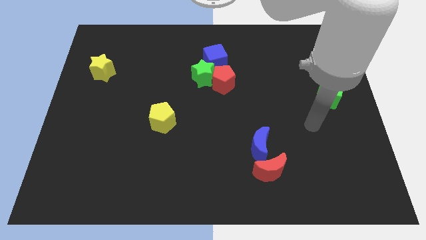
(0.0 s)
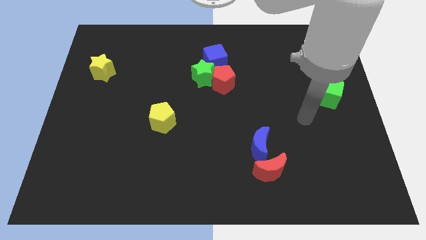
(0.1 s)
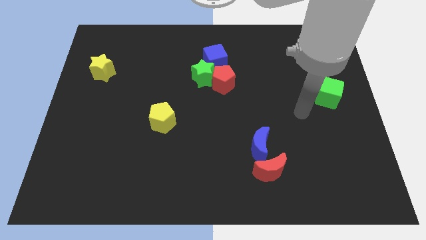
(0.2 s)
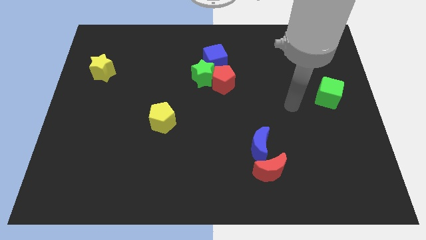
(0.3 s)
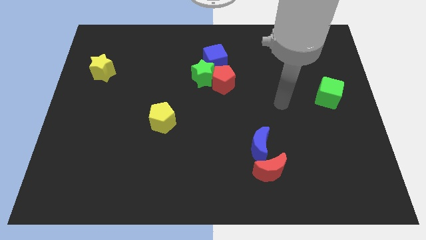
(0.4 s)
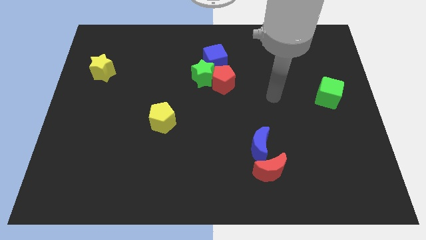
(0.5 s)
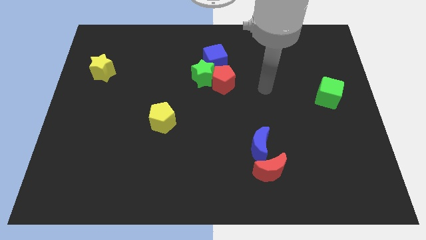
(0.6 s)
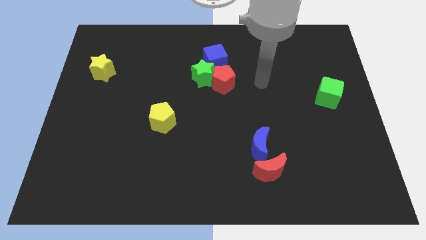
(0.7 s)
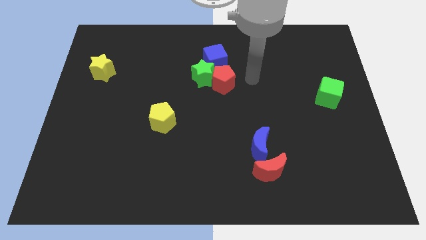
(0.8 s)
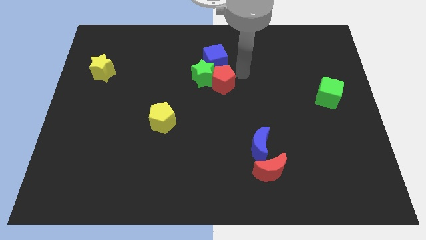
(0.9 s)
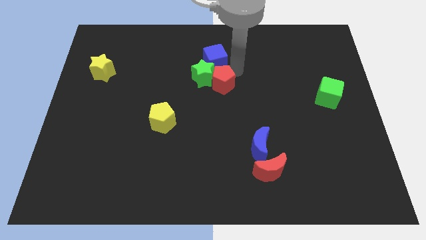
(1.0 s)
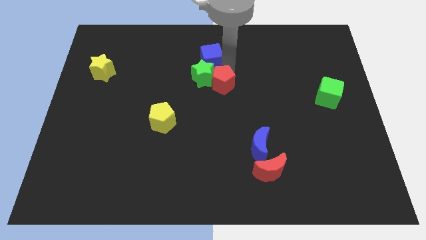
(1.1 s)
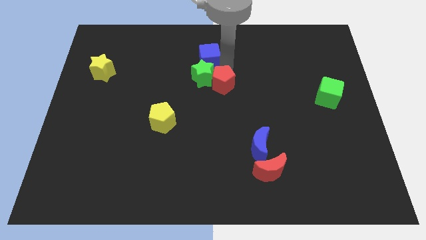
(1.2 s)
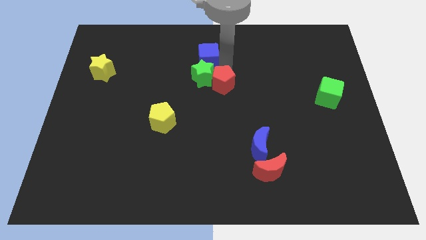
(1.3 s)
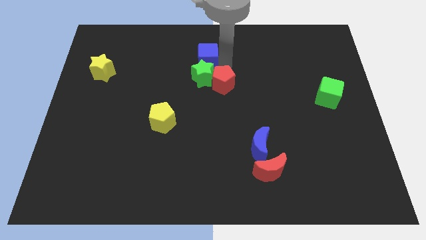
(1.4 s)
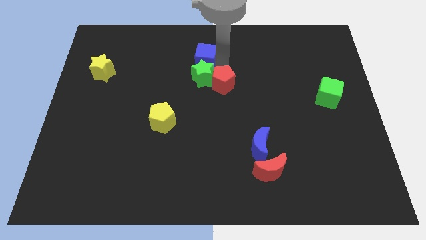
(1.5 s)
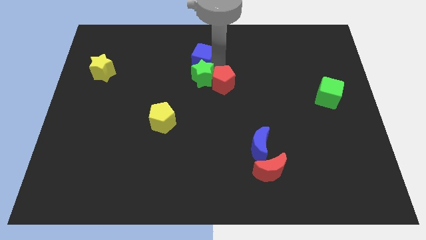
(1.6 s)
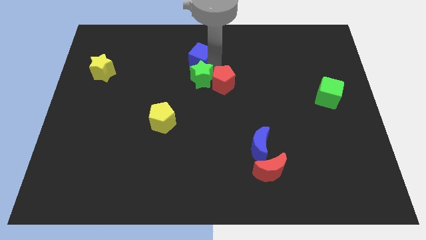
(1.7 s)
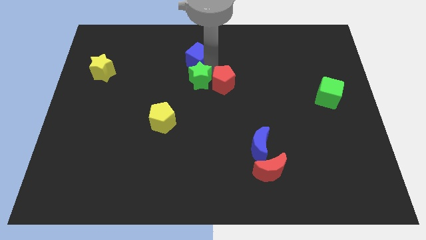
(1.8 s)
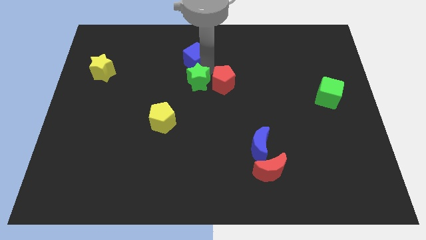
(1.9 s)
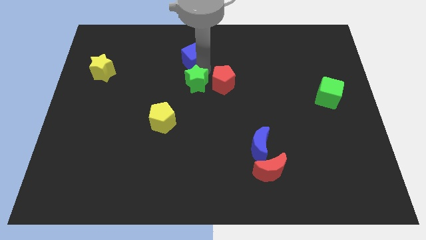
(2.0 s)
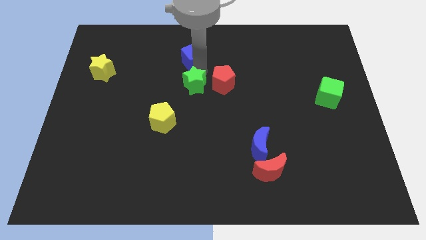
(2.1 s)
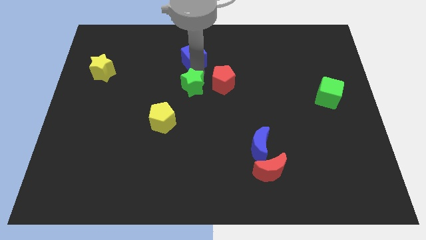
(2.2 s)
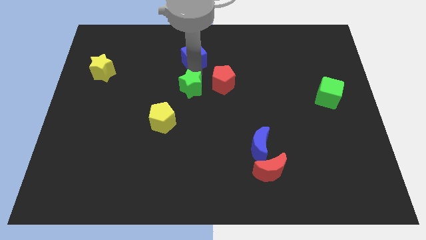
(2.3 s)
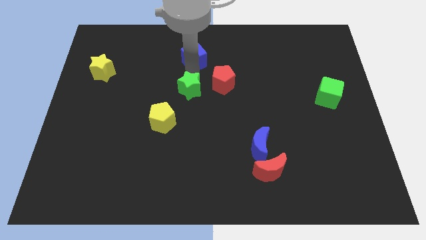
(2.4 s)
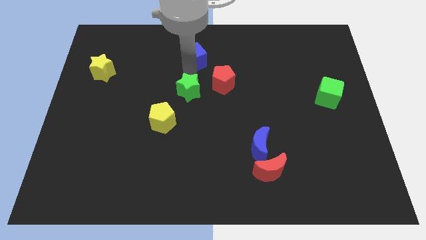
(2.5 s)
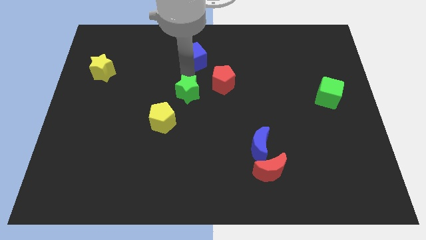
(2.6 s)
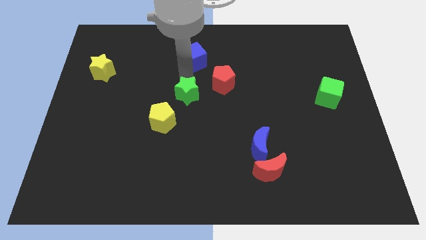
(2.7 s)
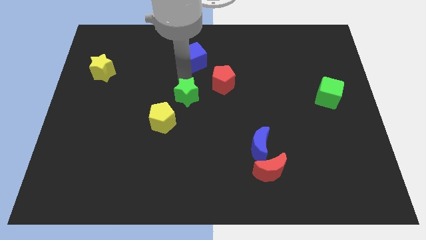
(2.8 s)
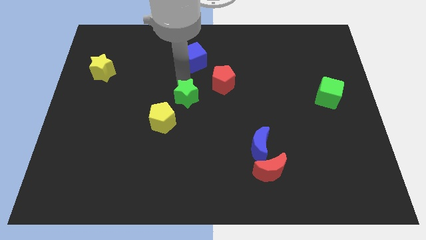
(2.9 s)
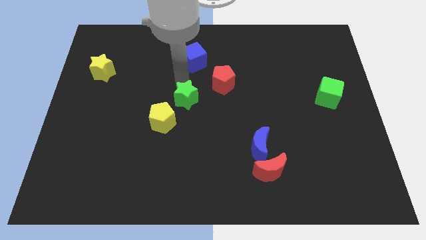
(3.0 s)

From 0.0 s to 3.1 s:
move the green star away from the red pentagon and blue cube

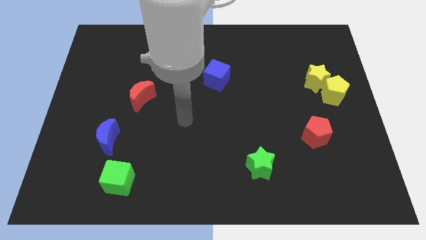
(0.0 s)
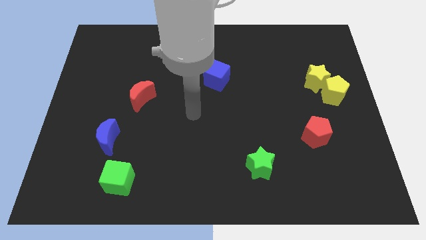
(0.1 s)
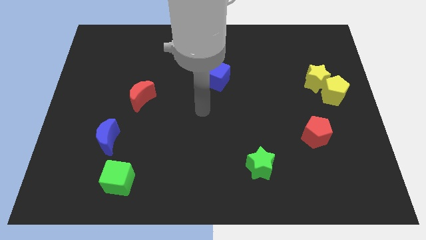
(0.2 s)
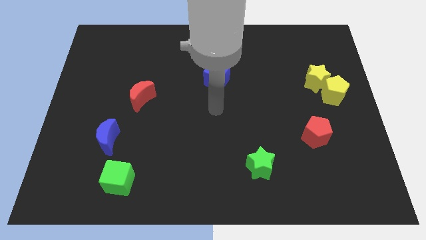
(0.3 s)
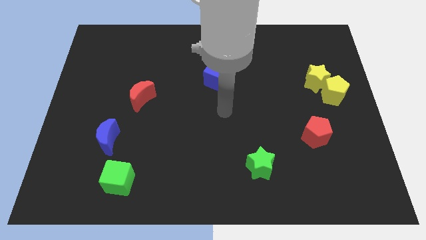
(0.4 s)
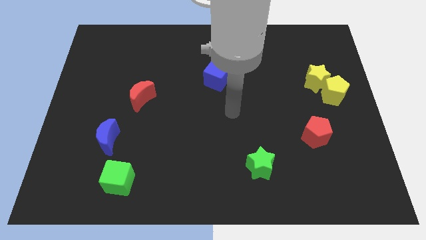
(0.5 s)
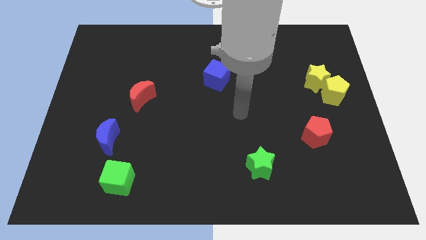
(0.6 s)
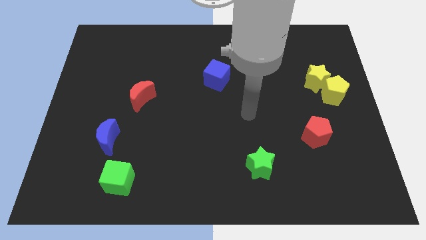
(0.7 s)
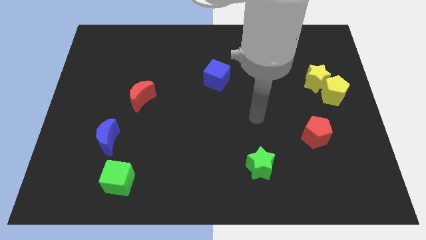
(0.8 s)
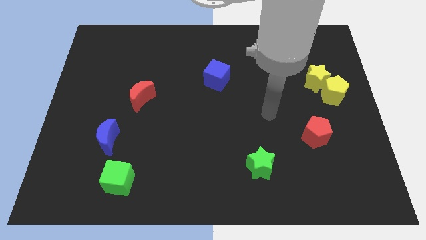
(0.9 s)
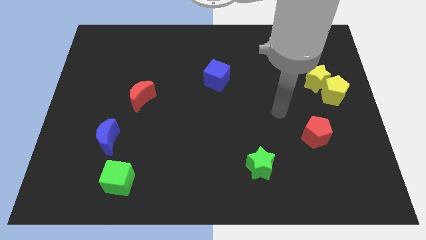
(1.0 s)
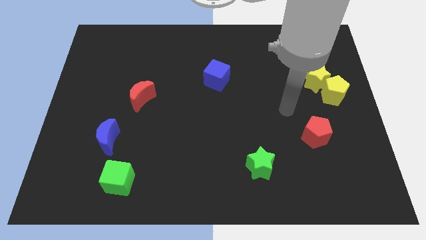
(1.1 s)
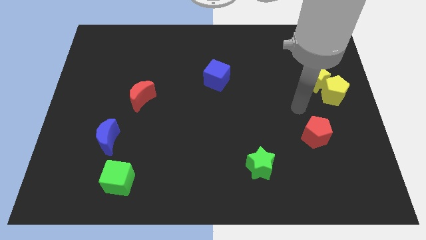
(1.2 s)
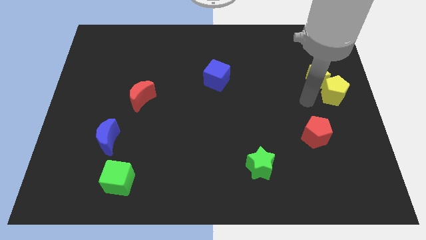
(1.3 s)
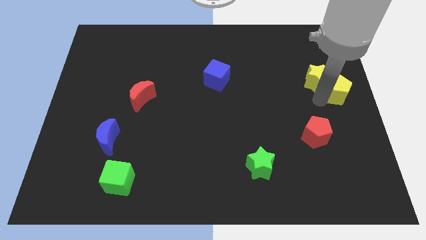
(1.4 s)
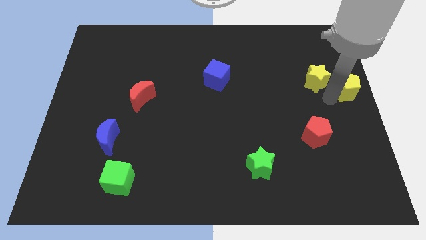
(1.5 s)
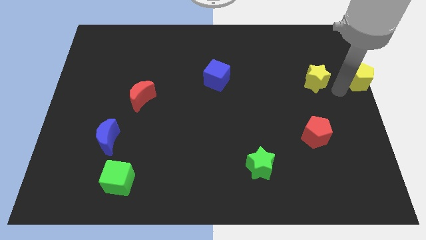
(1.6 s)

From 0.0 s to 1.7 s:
move the yellow star away from the yellow pentagon

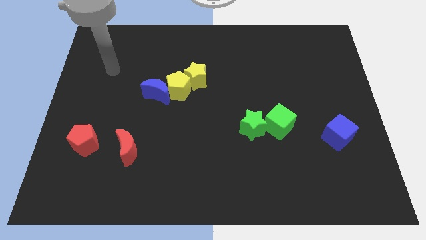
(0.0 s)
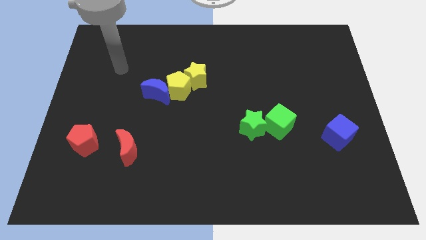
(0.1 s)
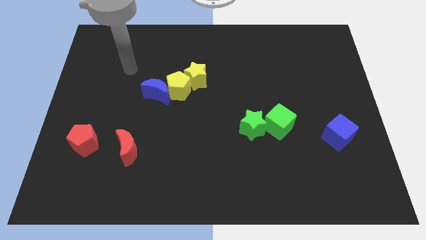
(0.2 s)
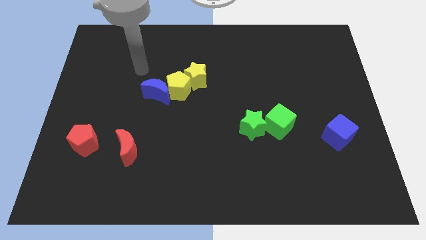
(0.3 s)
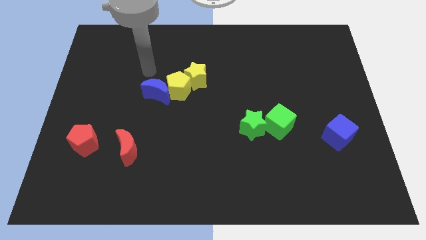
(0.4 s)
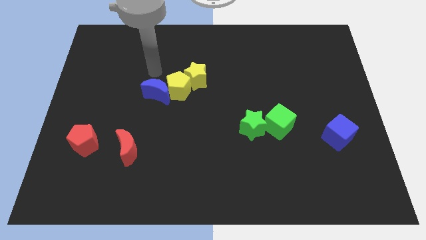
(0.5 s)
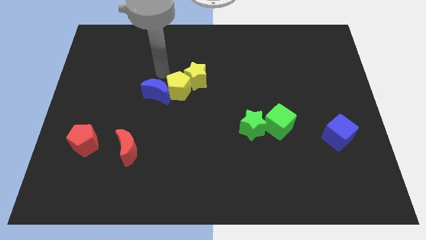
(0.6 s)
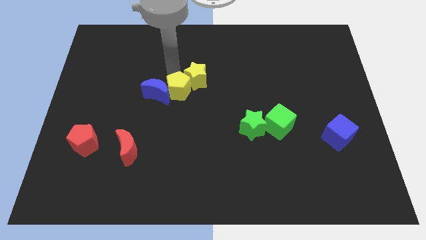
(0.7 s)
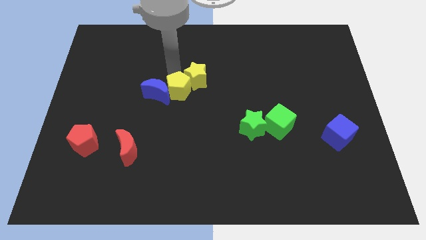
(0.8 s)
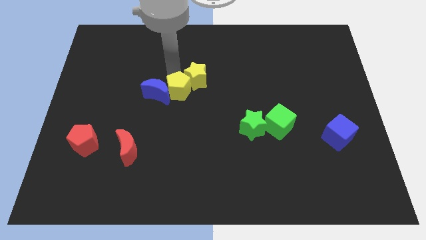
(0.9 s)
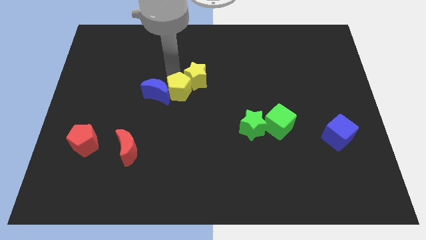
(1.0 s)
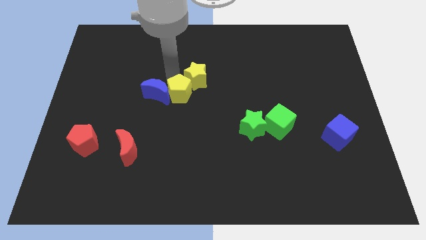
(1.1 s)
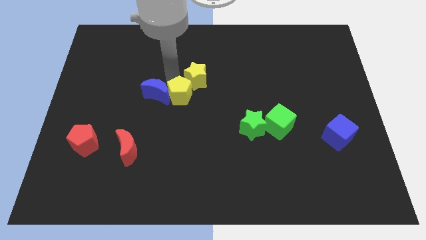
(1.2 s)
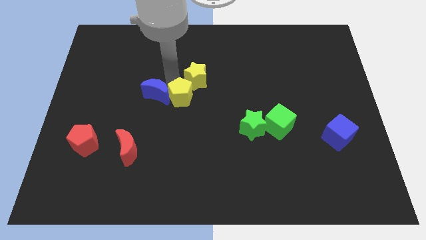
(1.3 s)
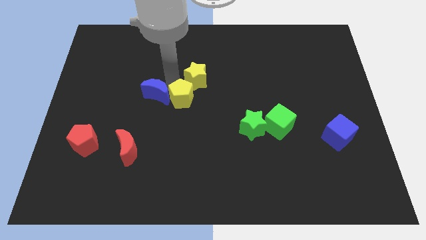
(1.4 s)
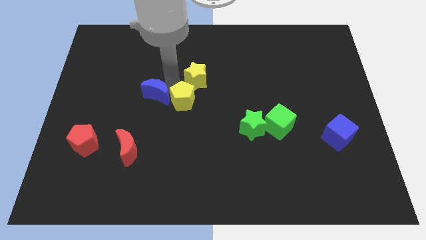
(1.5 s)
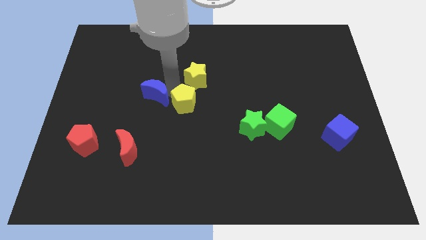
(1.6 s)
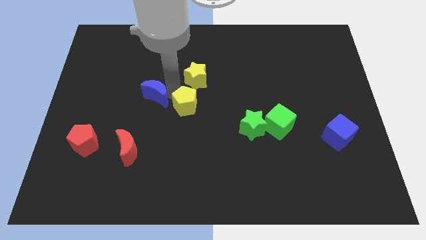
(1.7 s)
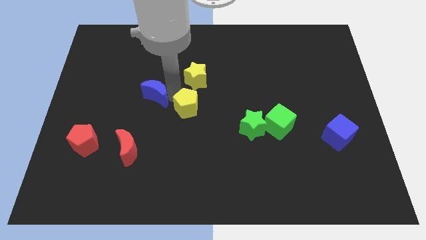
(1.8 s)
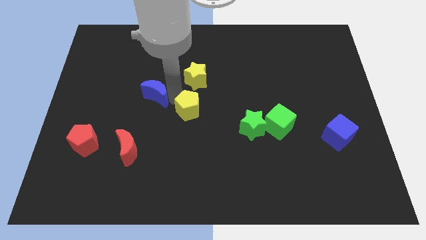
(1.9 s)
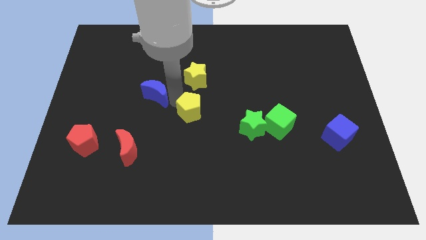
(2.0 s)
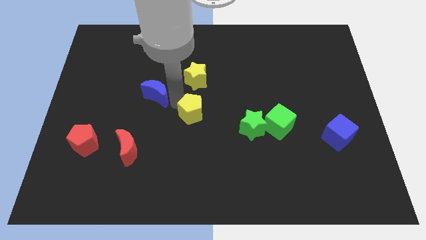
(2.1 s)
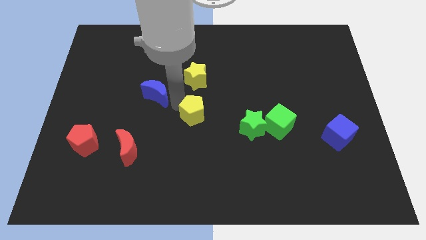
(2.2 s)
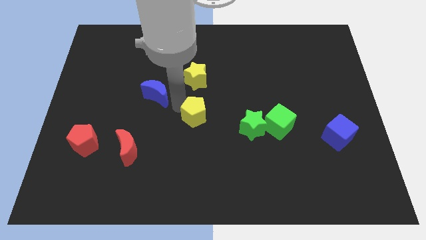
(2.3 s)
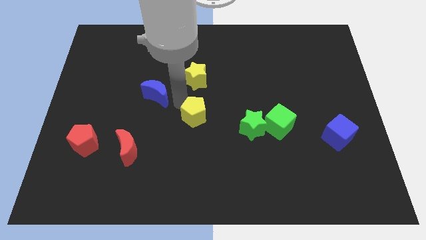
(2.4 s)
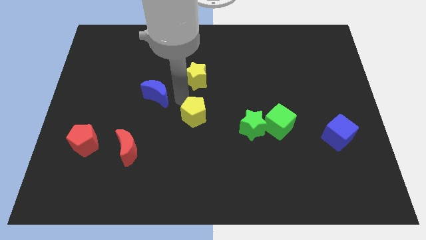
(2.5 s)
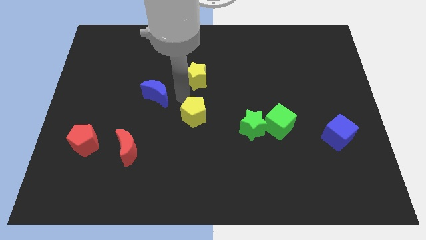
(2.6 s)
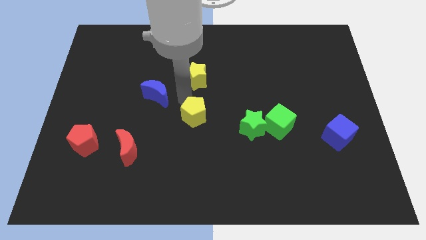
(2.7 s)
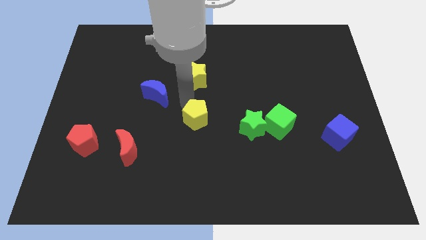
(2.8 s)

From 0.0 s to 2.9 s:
separate the yellow pentagon from the blue moon and yellow star

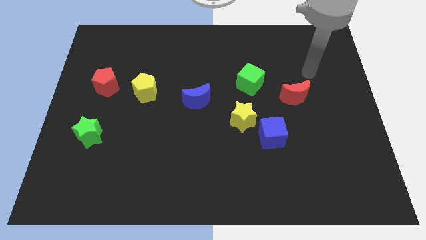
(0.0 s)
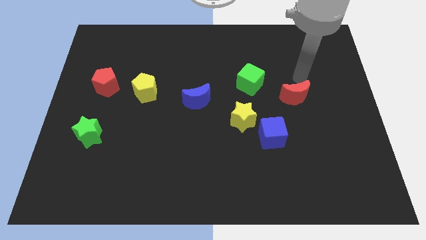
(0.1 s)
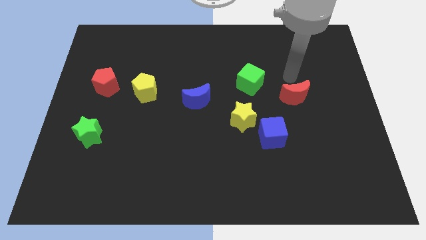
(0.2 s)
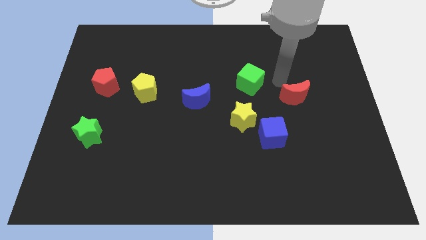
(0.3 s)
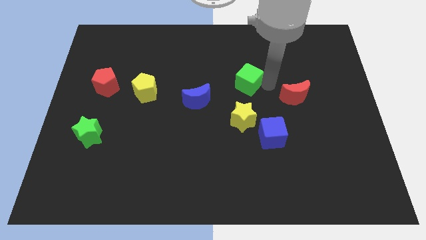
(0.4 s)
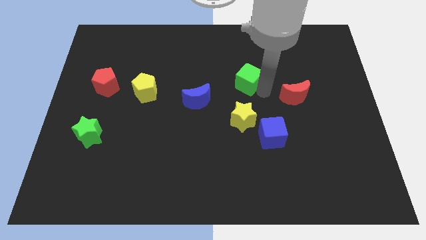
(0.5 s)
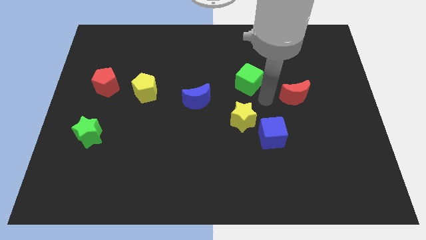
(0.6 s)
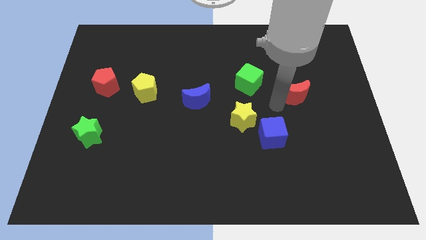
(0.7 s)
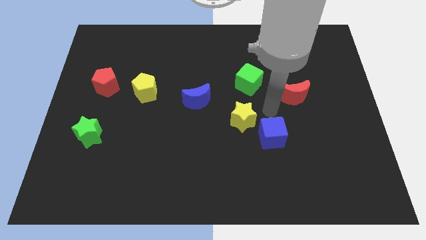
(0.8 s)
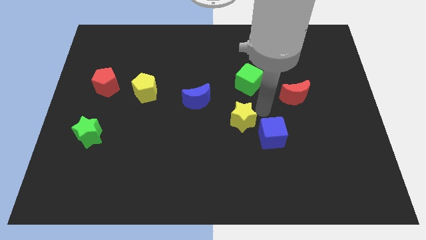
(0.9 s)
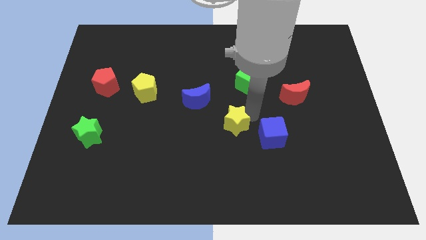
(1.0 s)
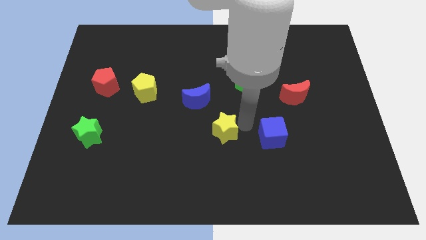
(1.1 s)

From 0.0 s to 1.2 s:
pull the blue cube apart from the yellow star

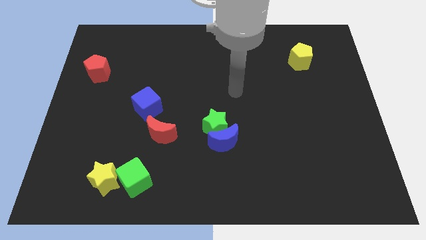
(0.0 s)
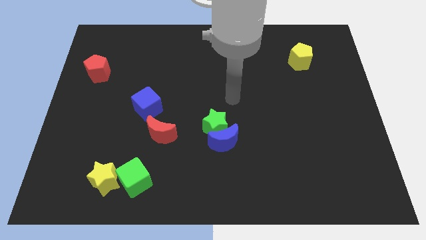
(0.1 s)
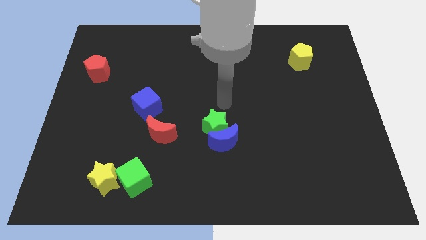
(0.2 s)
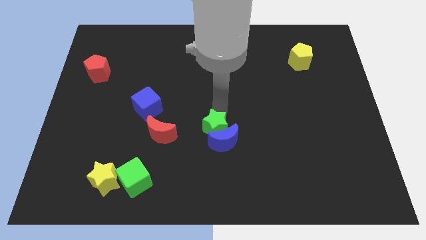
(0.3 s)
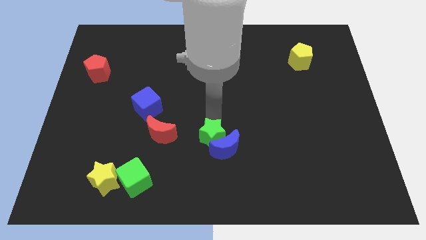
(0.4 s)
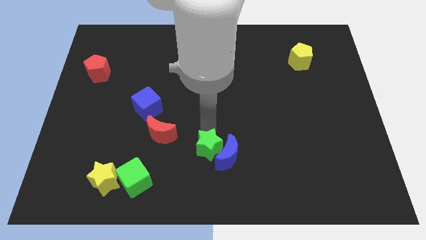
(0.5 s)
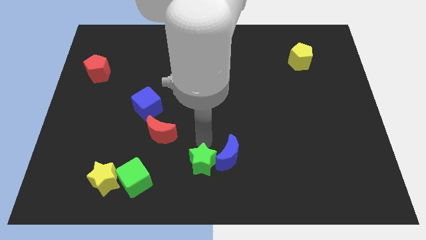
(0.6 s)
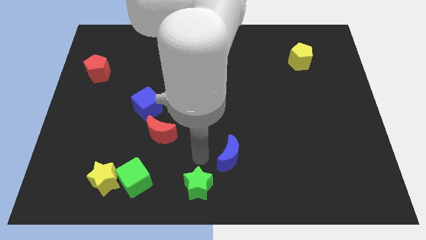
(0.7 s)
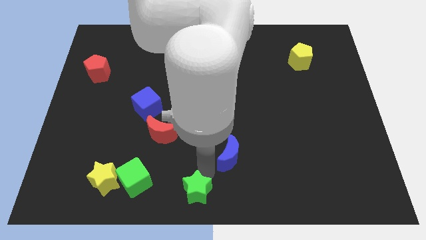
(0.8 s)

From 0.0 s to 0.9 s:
separate the blue moon from the green star
